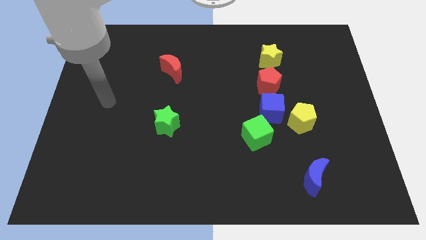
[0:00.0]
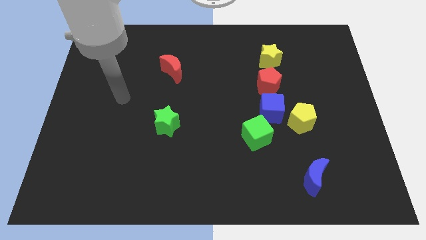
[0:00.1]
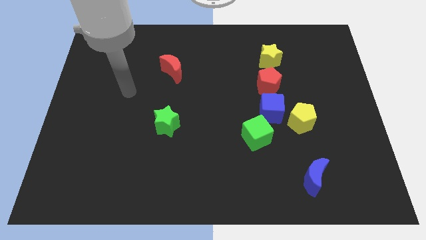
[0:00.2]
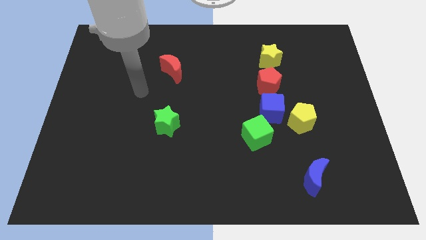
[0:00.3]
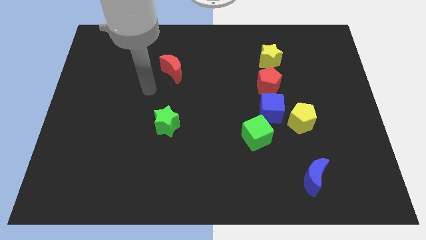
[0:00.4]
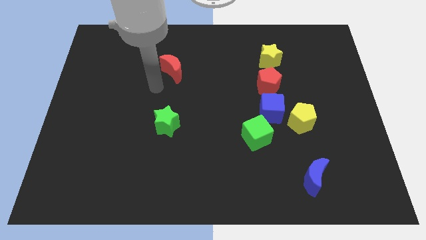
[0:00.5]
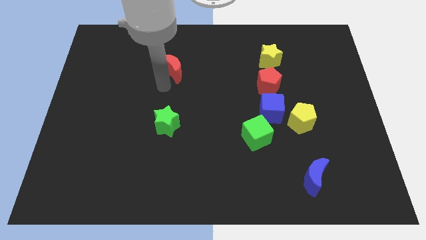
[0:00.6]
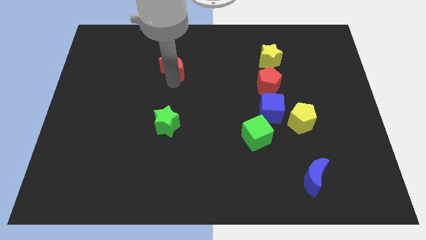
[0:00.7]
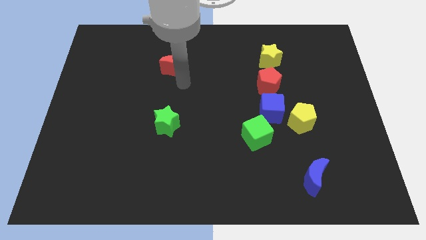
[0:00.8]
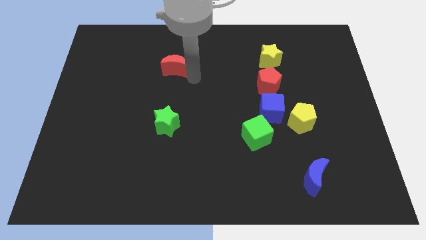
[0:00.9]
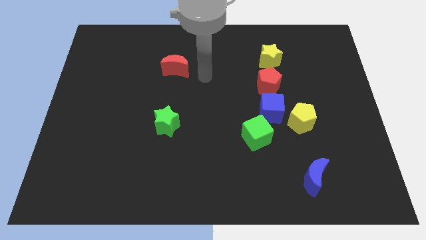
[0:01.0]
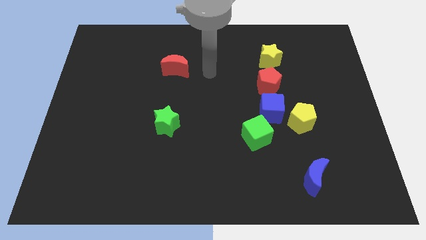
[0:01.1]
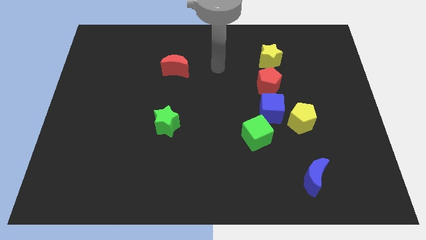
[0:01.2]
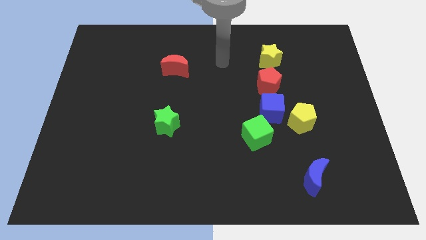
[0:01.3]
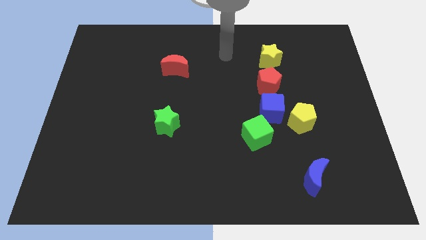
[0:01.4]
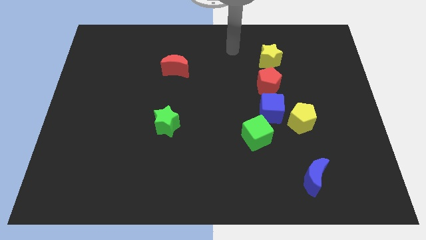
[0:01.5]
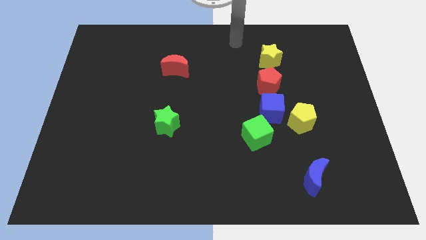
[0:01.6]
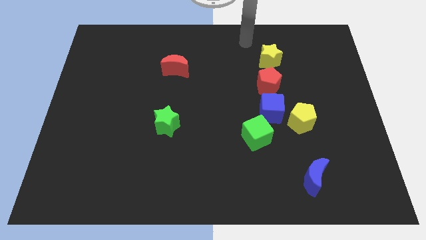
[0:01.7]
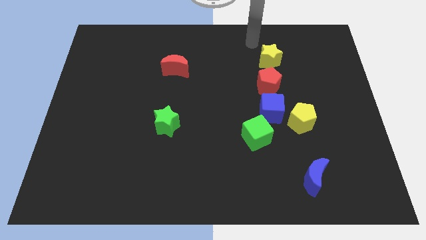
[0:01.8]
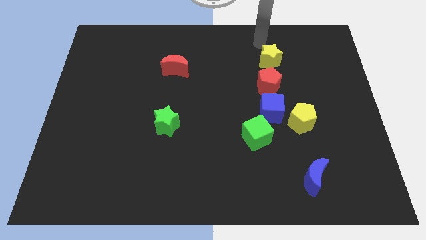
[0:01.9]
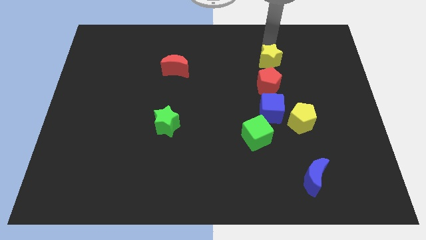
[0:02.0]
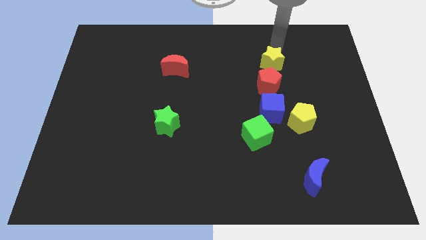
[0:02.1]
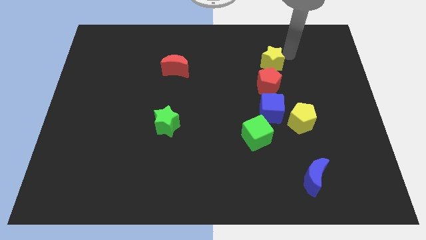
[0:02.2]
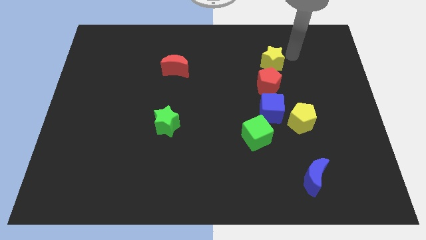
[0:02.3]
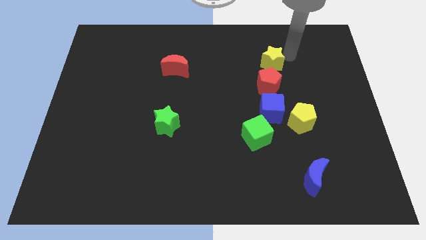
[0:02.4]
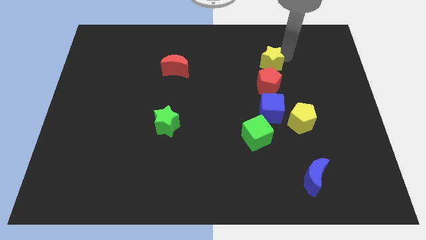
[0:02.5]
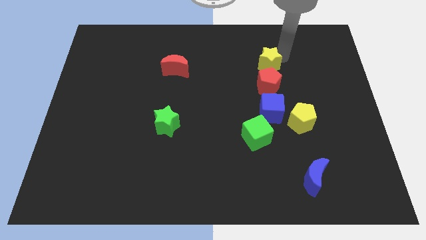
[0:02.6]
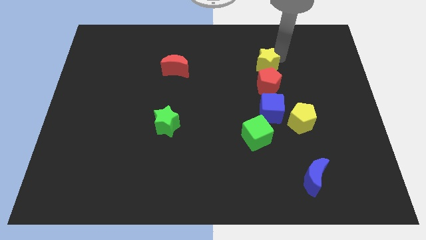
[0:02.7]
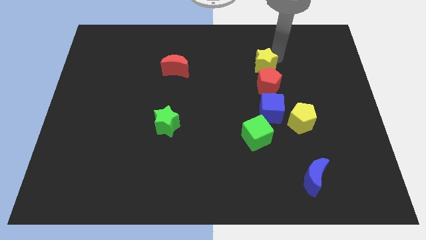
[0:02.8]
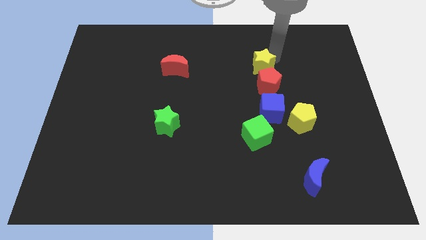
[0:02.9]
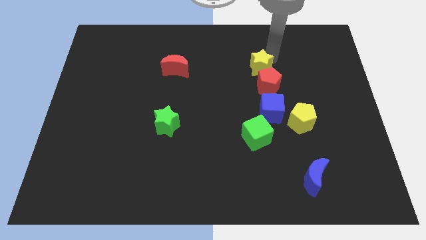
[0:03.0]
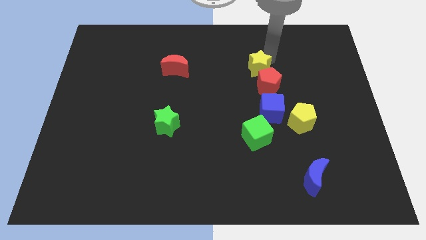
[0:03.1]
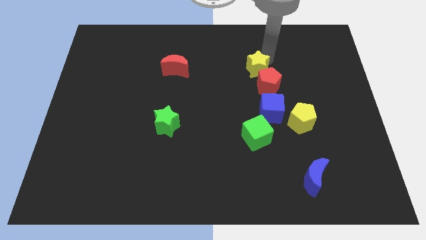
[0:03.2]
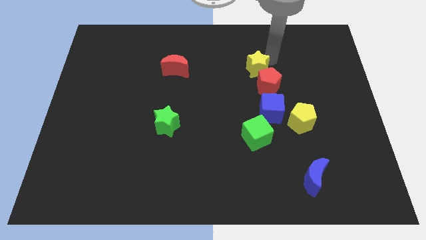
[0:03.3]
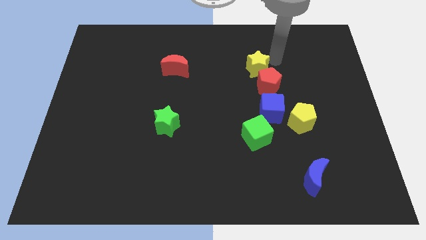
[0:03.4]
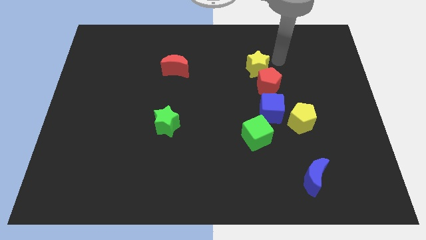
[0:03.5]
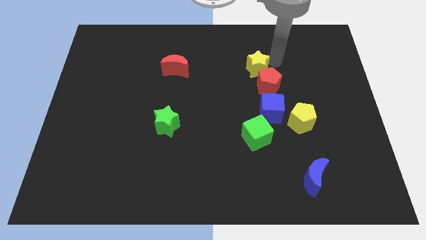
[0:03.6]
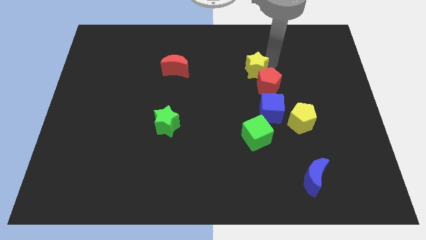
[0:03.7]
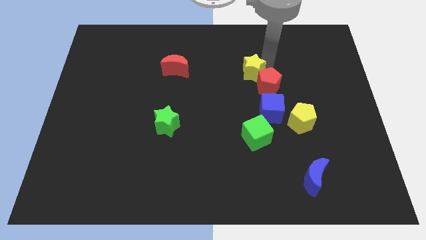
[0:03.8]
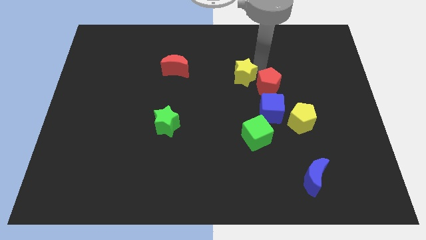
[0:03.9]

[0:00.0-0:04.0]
slightly slide the yellow star down and then left

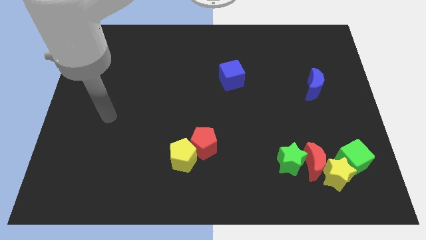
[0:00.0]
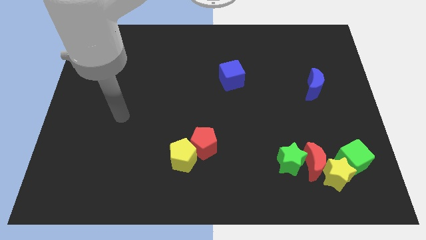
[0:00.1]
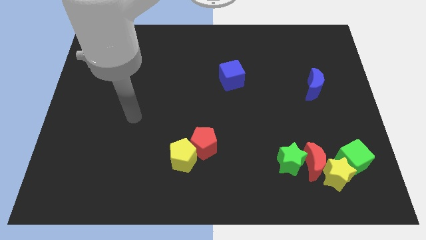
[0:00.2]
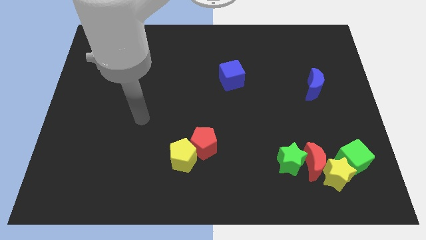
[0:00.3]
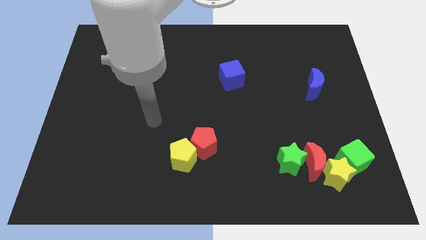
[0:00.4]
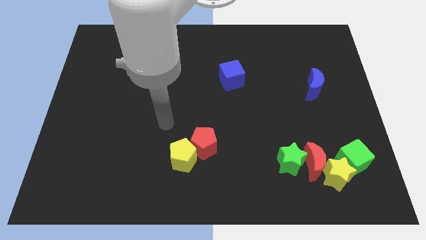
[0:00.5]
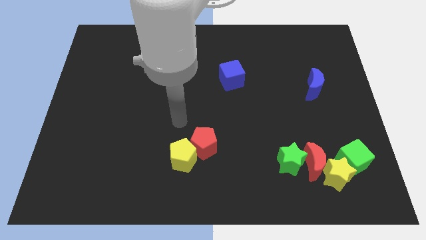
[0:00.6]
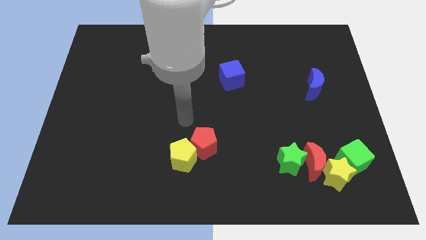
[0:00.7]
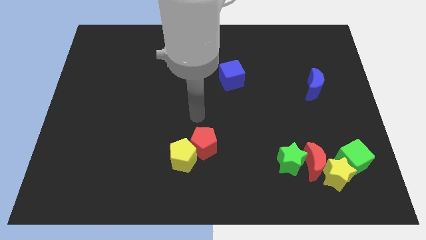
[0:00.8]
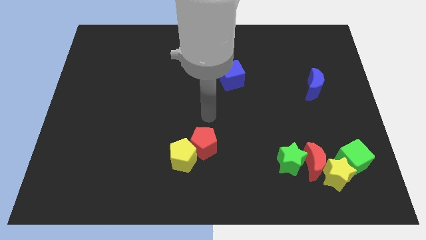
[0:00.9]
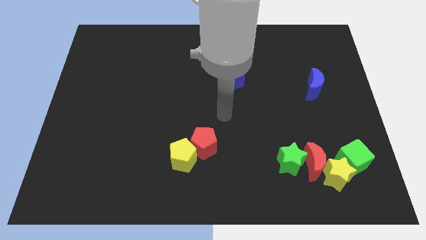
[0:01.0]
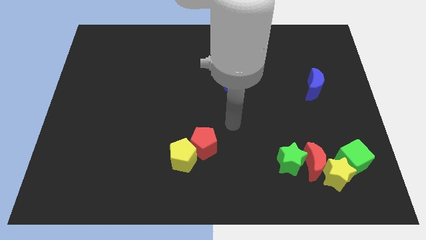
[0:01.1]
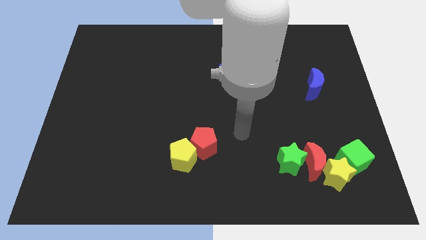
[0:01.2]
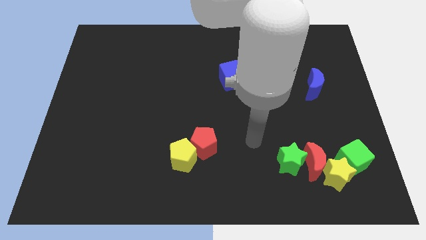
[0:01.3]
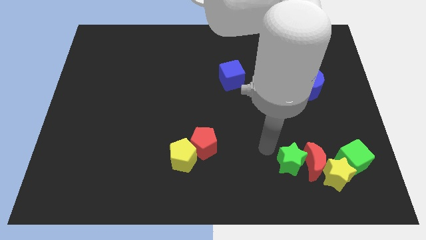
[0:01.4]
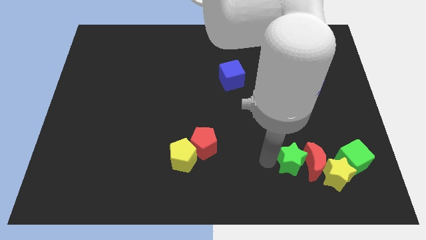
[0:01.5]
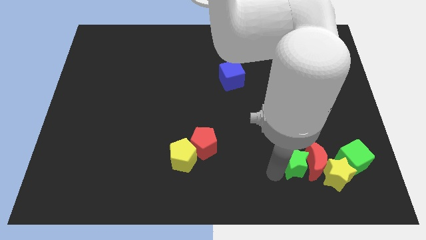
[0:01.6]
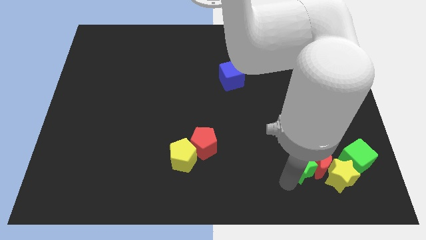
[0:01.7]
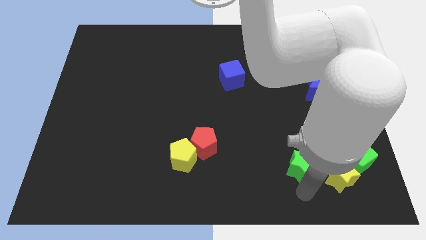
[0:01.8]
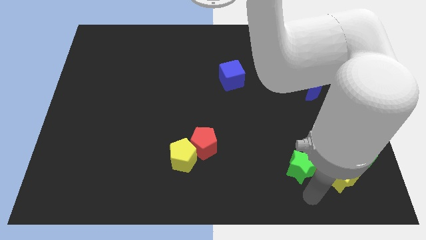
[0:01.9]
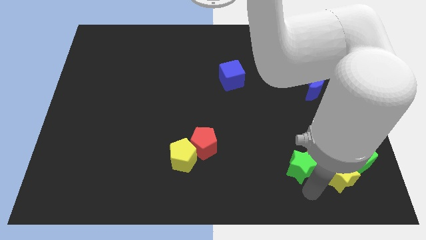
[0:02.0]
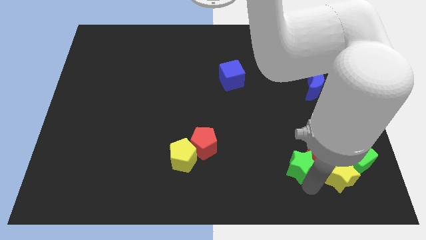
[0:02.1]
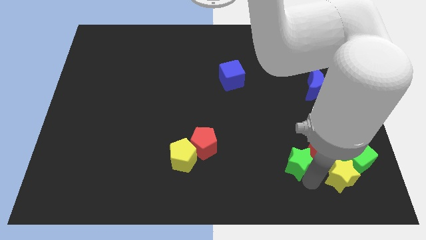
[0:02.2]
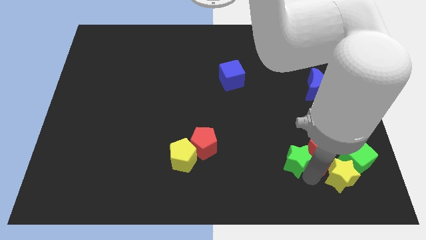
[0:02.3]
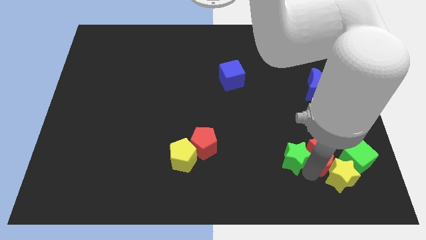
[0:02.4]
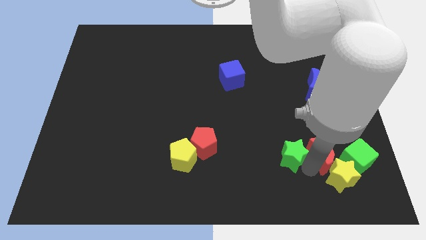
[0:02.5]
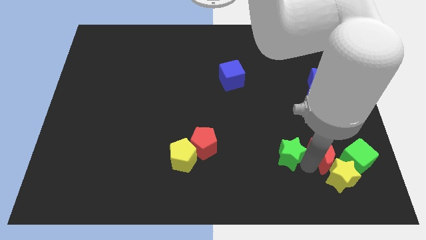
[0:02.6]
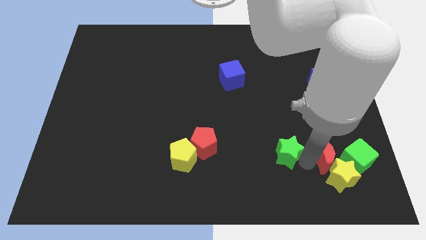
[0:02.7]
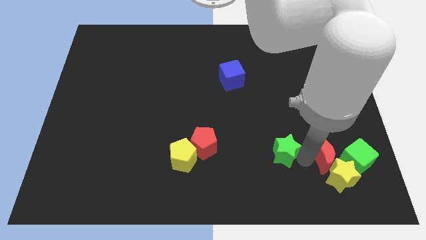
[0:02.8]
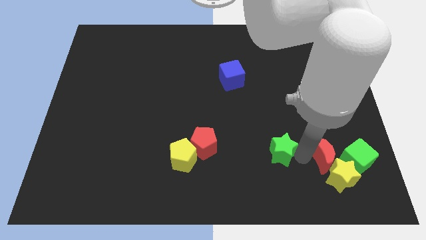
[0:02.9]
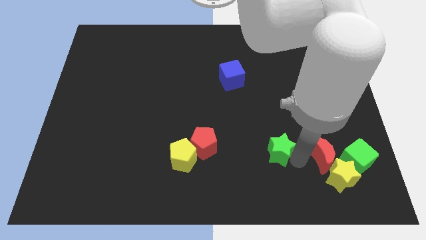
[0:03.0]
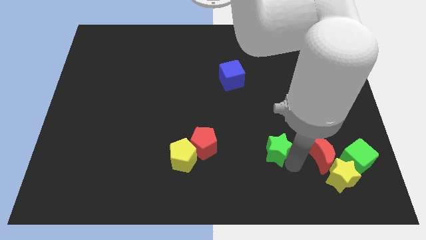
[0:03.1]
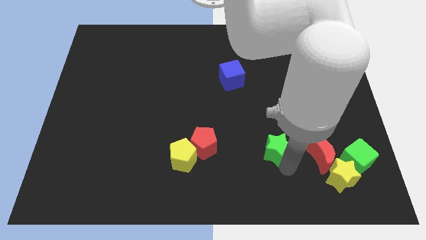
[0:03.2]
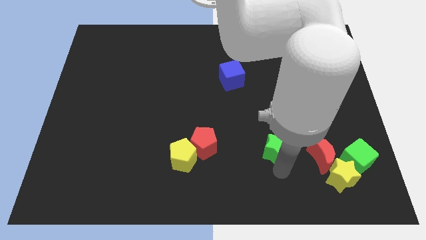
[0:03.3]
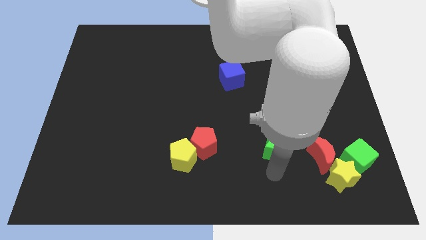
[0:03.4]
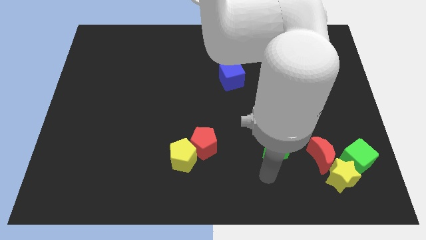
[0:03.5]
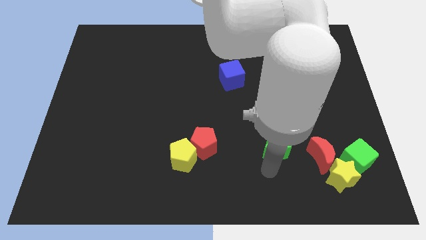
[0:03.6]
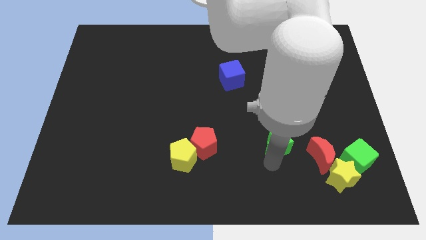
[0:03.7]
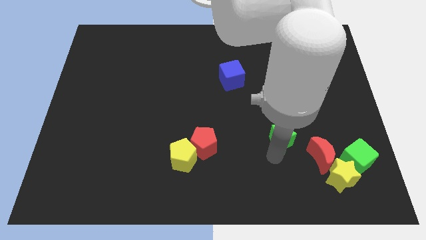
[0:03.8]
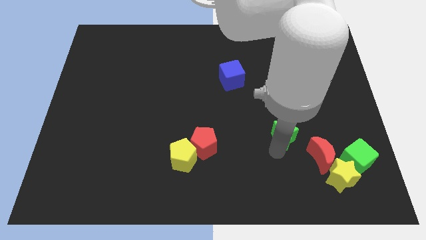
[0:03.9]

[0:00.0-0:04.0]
push the green star upwards somewhat
